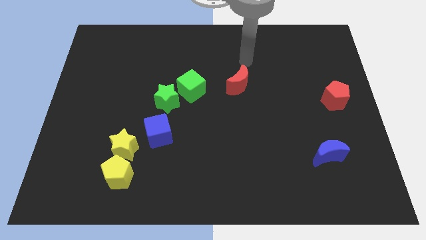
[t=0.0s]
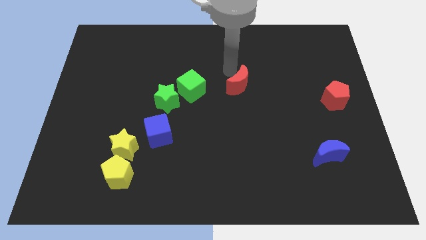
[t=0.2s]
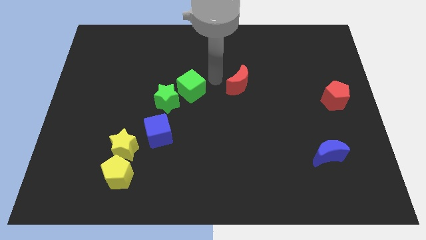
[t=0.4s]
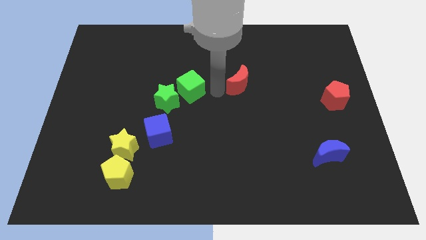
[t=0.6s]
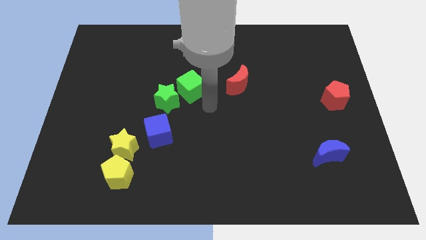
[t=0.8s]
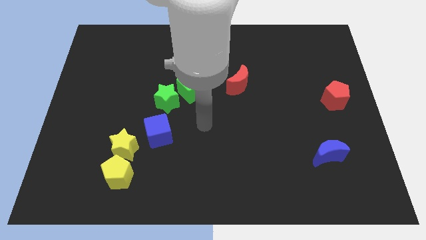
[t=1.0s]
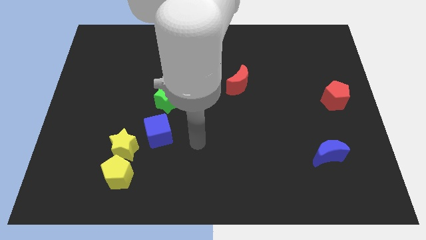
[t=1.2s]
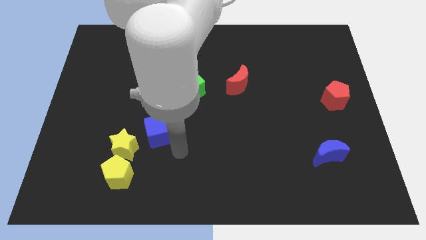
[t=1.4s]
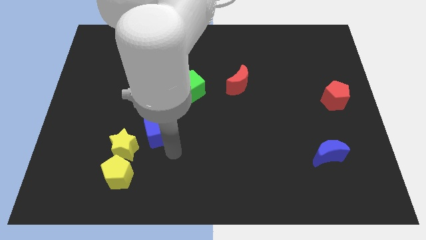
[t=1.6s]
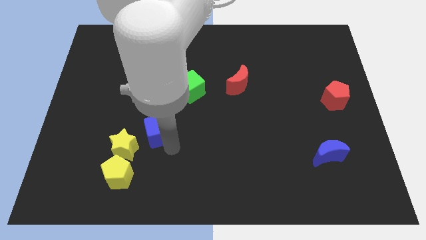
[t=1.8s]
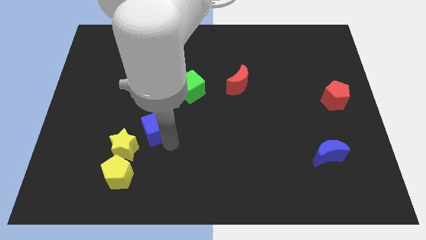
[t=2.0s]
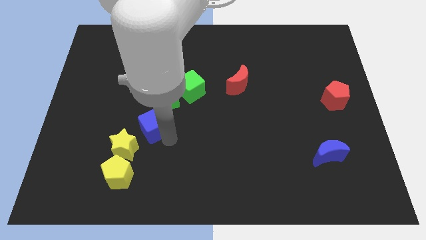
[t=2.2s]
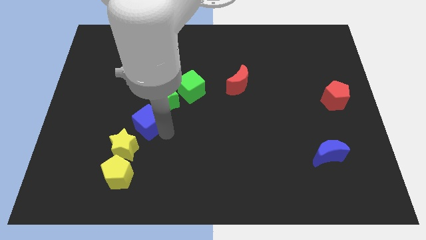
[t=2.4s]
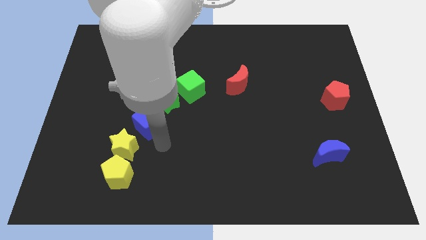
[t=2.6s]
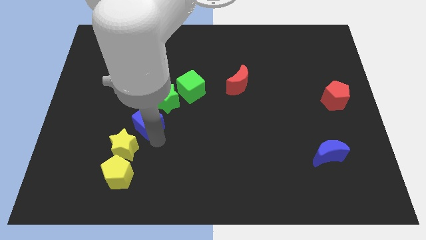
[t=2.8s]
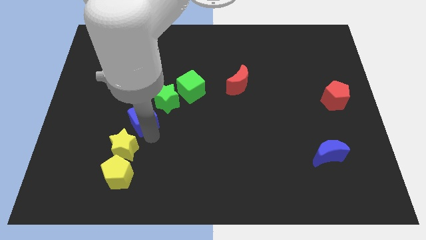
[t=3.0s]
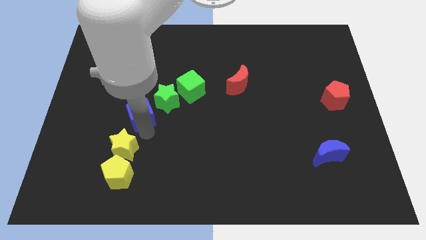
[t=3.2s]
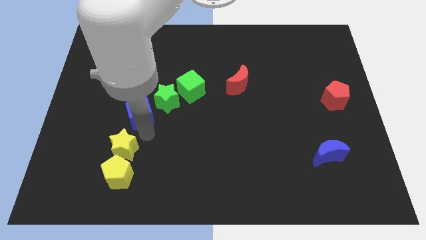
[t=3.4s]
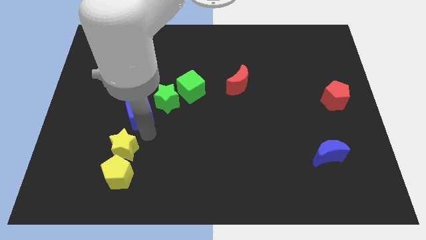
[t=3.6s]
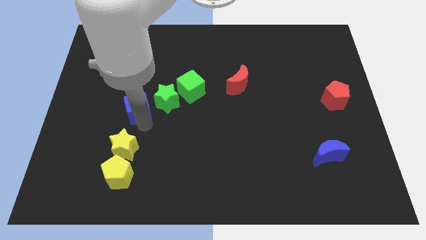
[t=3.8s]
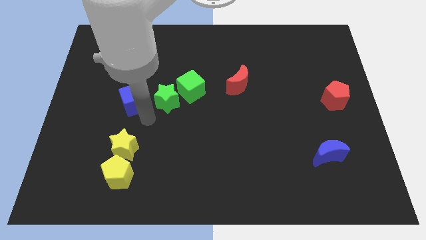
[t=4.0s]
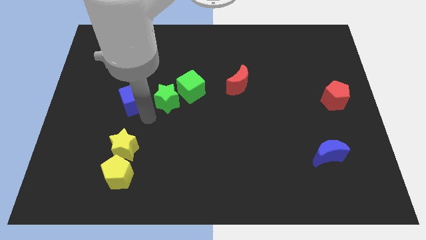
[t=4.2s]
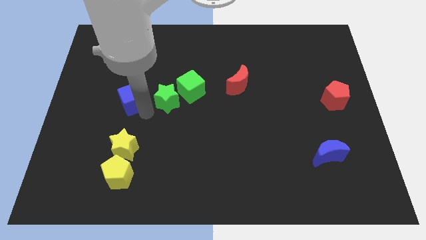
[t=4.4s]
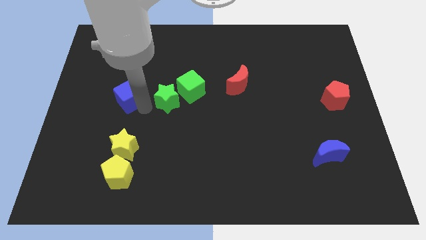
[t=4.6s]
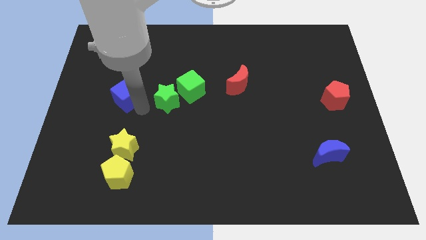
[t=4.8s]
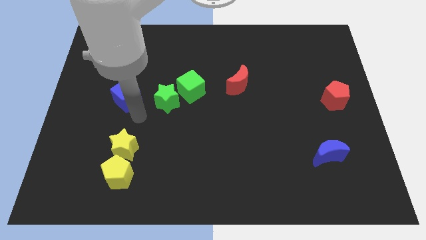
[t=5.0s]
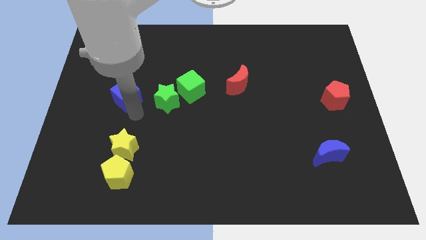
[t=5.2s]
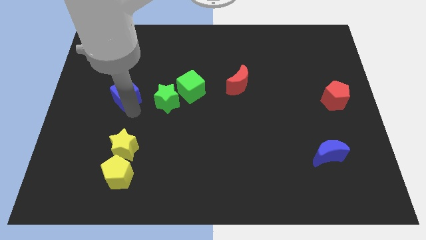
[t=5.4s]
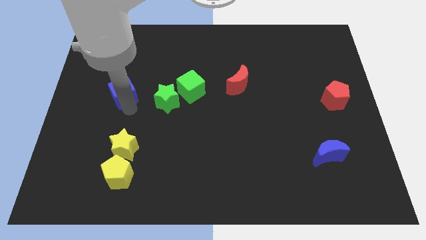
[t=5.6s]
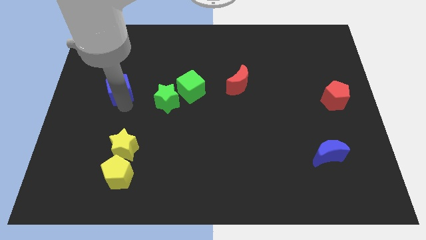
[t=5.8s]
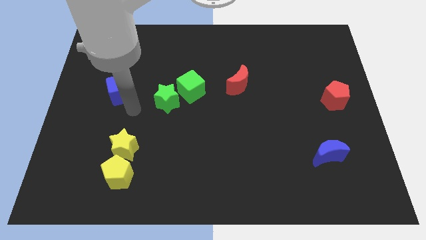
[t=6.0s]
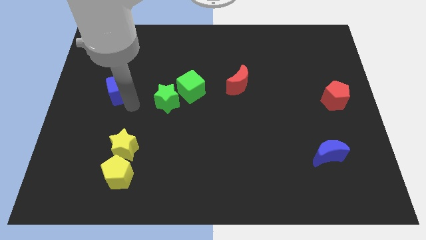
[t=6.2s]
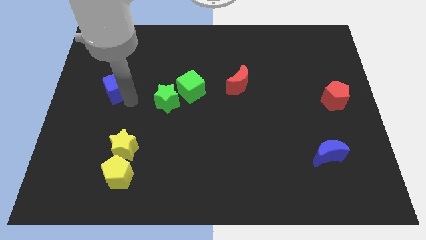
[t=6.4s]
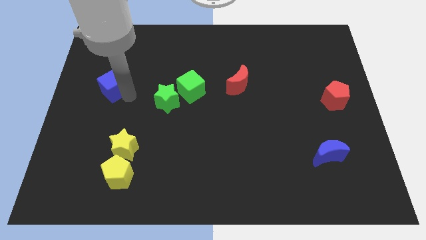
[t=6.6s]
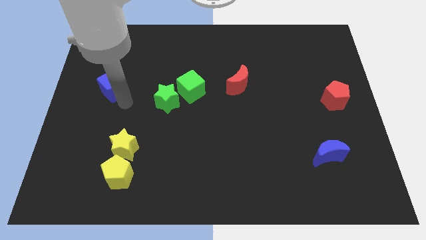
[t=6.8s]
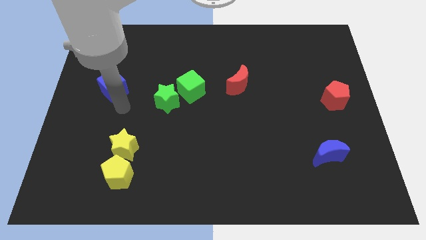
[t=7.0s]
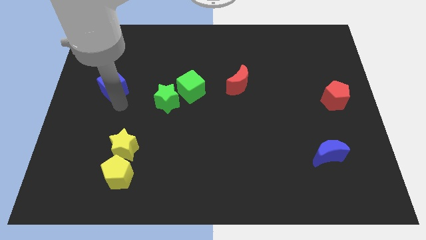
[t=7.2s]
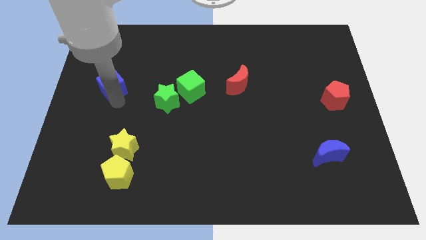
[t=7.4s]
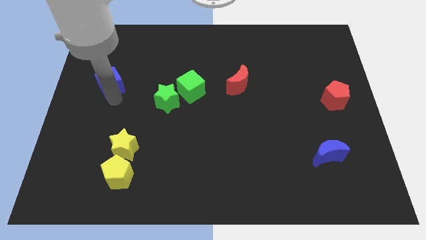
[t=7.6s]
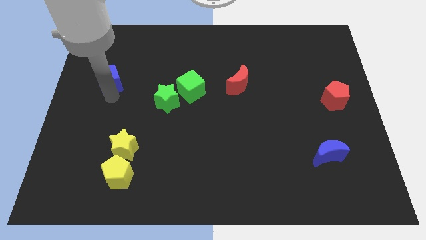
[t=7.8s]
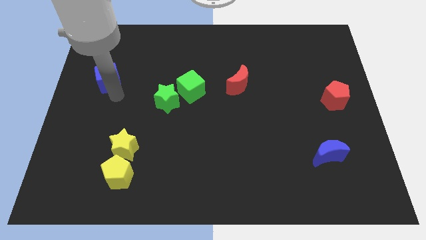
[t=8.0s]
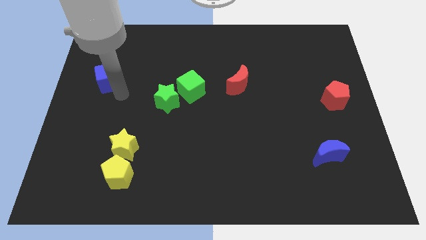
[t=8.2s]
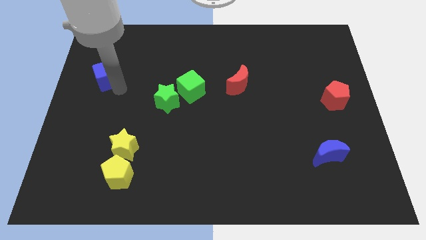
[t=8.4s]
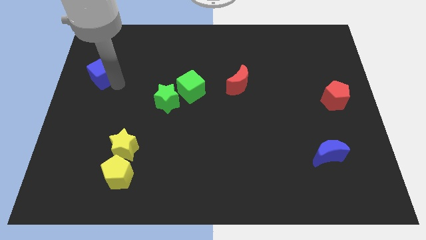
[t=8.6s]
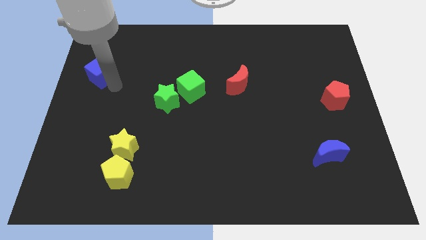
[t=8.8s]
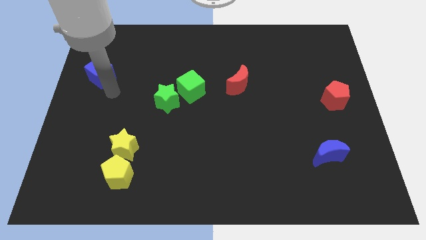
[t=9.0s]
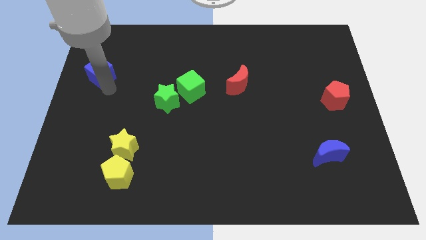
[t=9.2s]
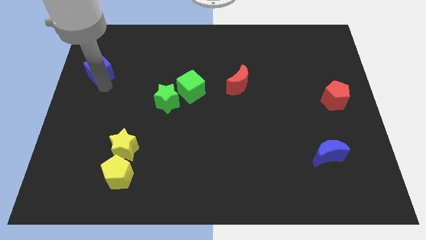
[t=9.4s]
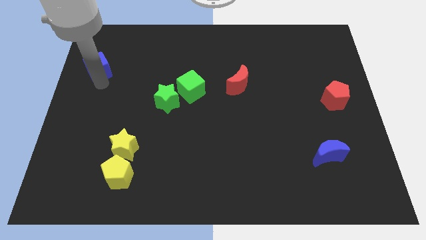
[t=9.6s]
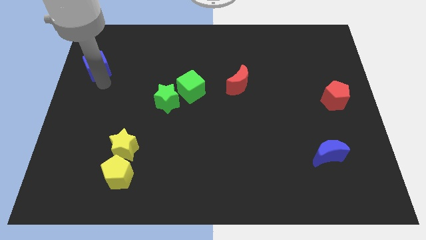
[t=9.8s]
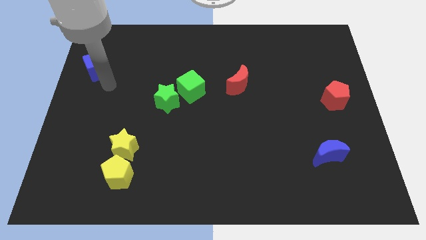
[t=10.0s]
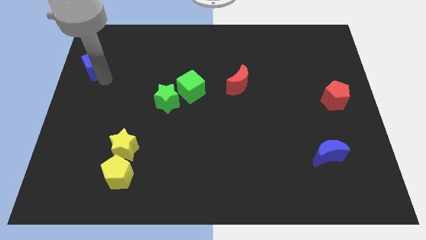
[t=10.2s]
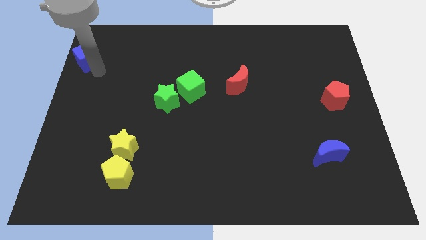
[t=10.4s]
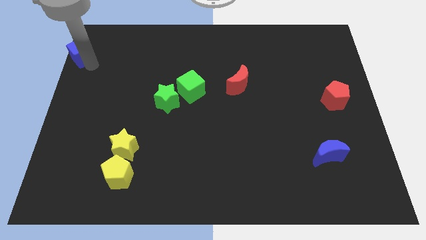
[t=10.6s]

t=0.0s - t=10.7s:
slide the blue cube to the top left of the board

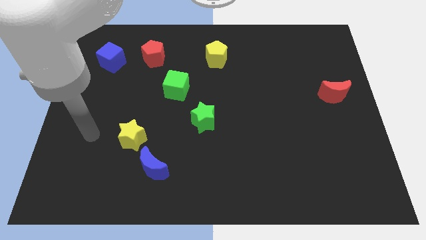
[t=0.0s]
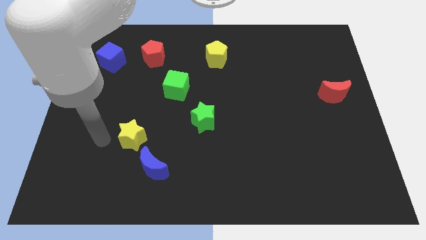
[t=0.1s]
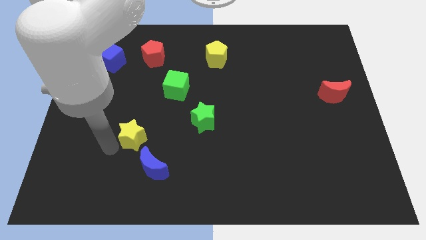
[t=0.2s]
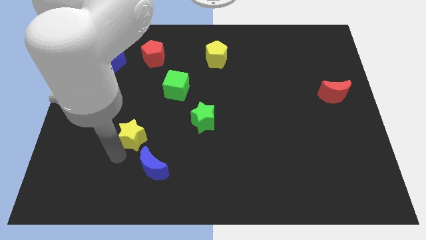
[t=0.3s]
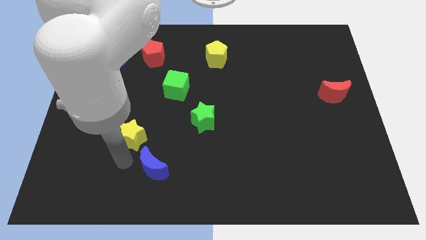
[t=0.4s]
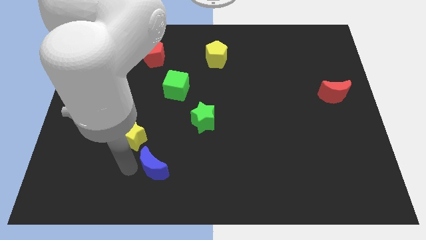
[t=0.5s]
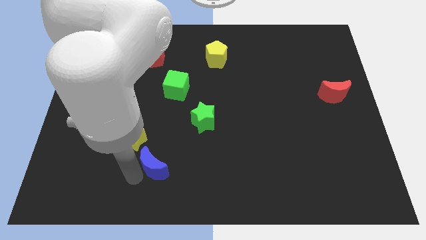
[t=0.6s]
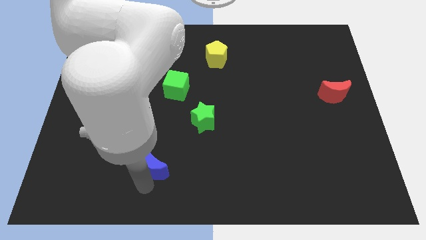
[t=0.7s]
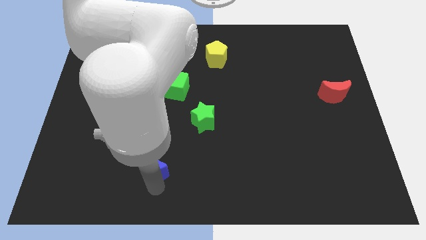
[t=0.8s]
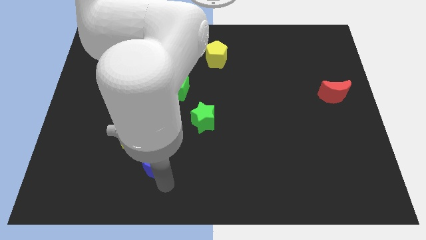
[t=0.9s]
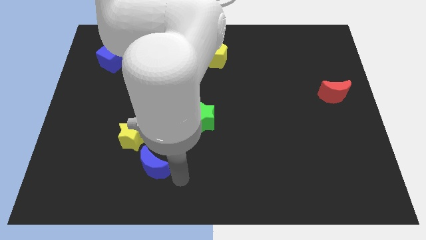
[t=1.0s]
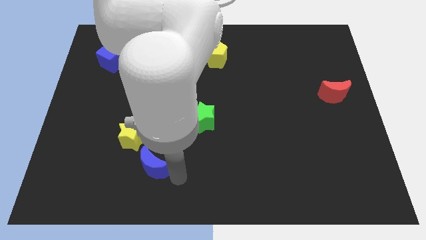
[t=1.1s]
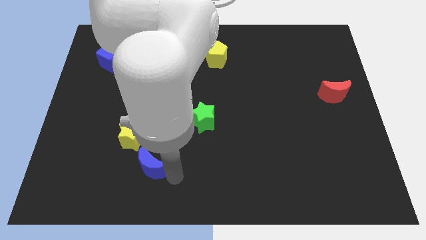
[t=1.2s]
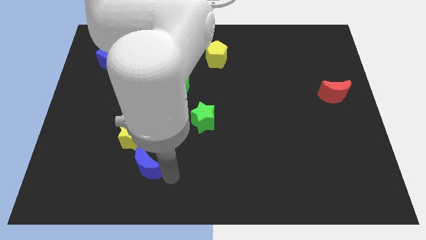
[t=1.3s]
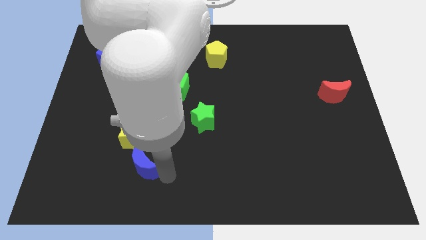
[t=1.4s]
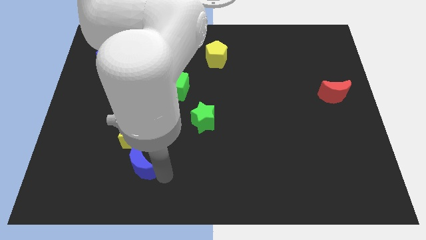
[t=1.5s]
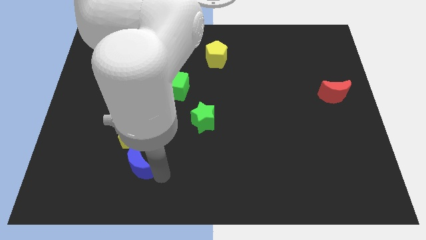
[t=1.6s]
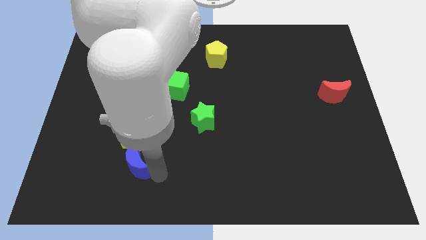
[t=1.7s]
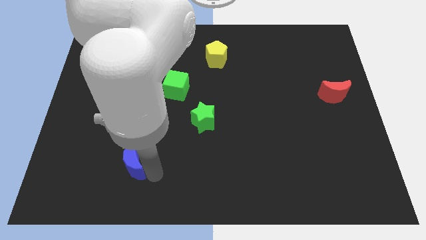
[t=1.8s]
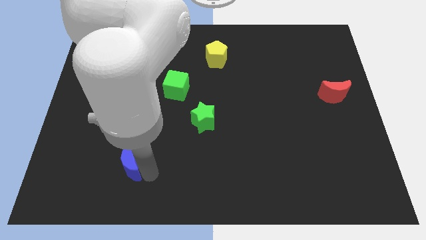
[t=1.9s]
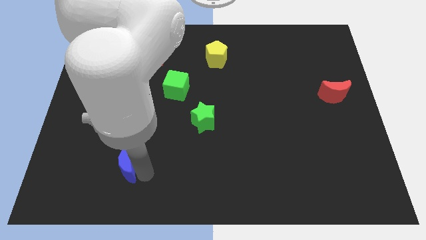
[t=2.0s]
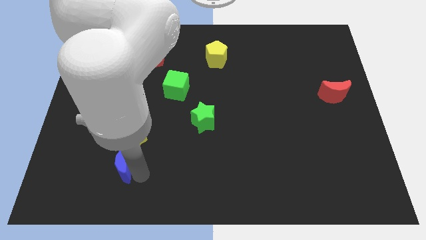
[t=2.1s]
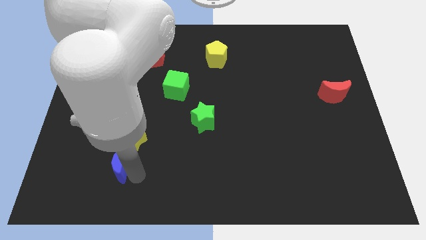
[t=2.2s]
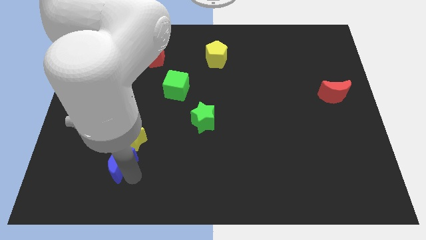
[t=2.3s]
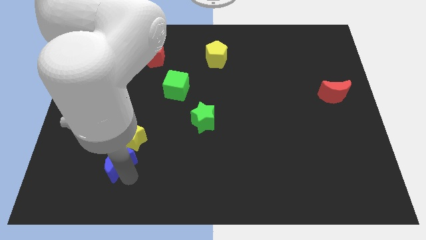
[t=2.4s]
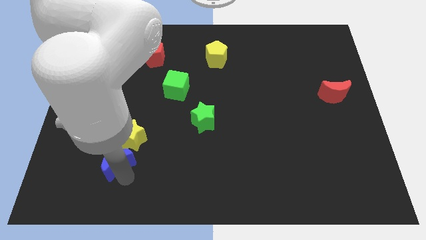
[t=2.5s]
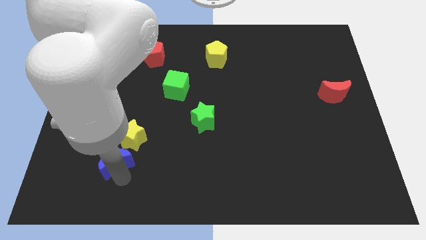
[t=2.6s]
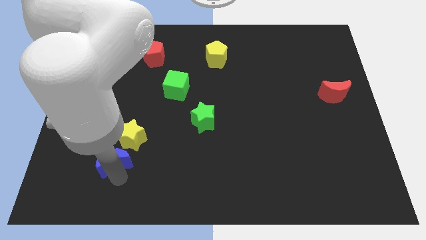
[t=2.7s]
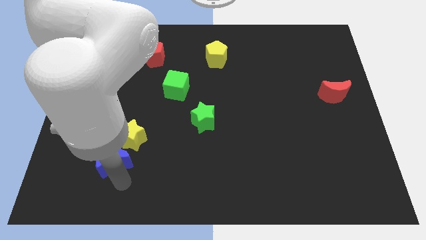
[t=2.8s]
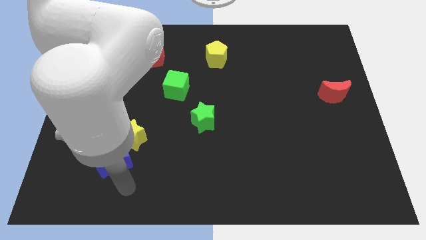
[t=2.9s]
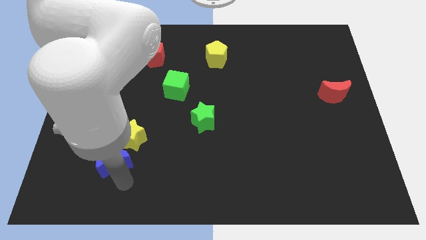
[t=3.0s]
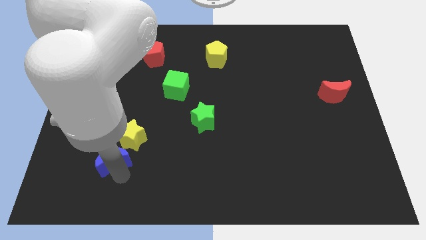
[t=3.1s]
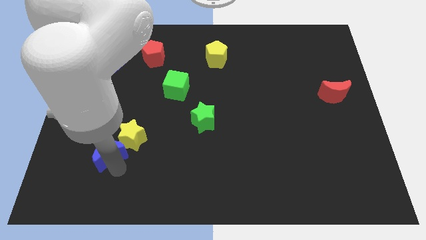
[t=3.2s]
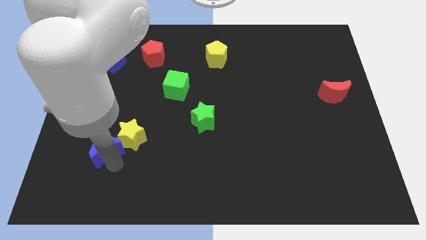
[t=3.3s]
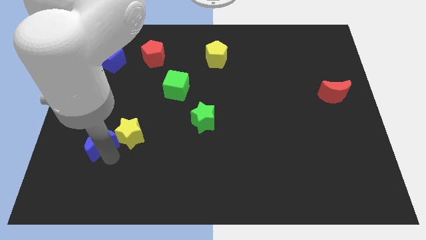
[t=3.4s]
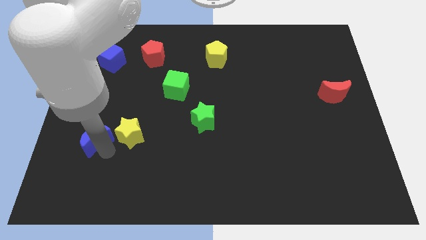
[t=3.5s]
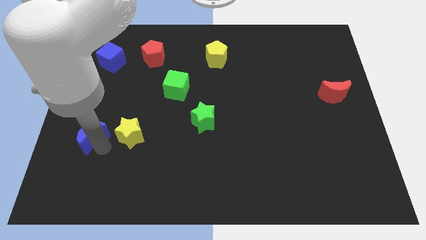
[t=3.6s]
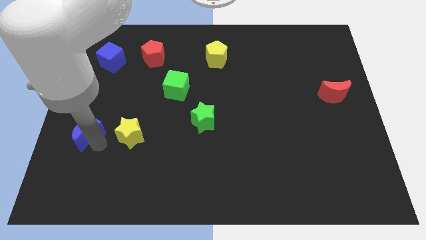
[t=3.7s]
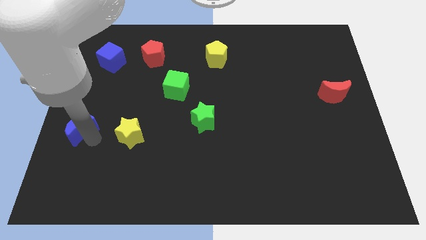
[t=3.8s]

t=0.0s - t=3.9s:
put the blue moon to the left side
